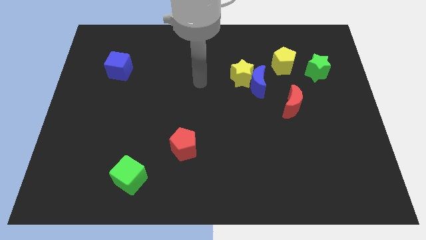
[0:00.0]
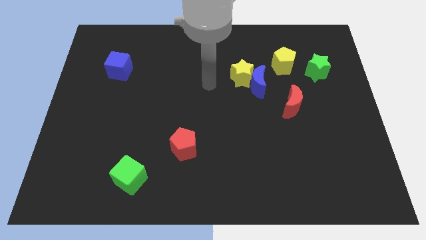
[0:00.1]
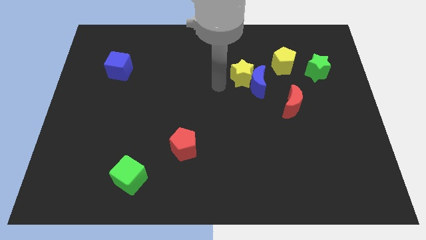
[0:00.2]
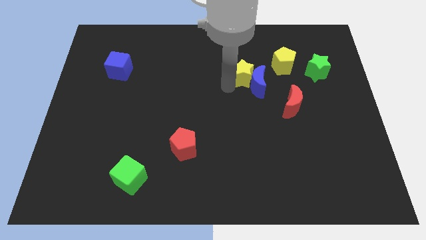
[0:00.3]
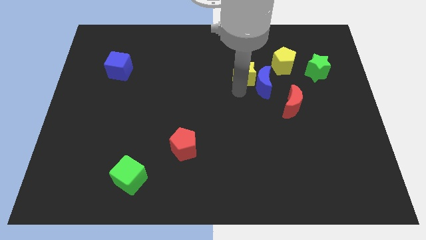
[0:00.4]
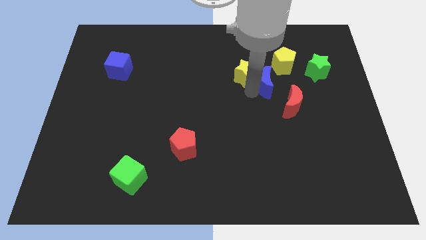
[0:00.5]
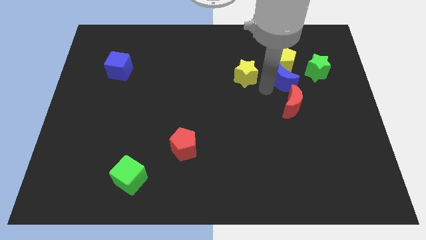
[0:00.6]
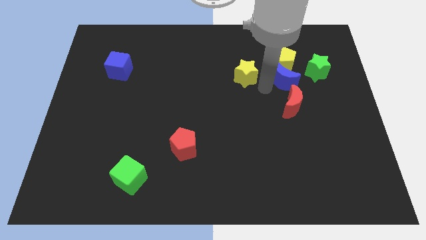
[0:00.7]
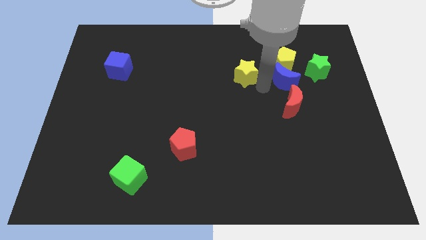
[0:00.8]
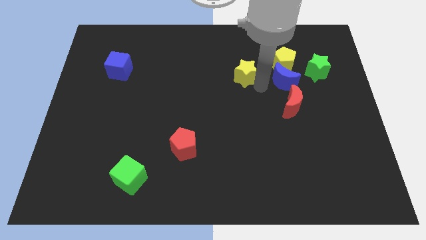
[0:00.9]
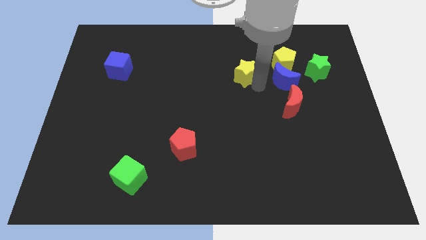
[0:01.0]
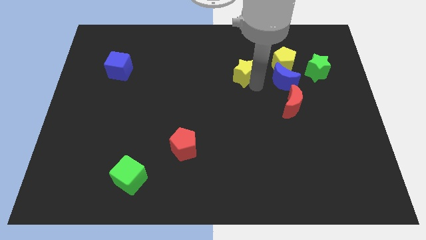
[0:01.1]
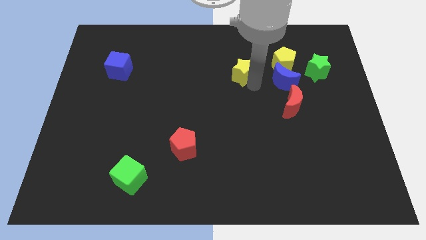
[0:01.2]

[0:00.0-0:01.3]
separate the yellow star from the blue moon

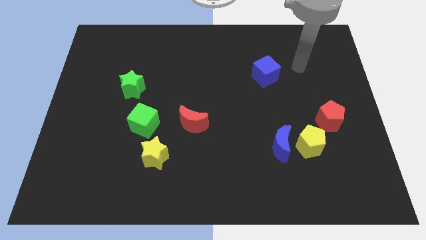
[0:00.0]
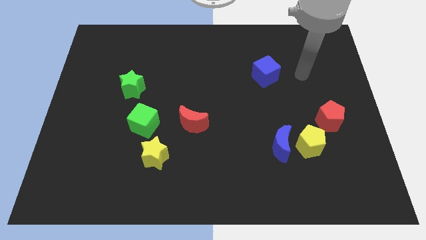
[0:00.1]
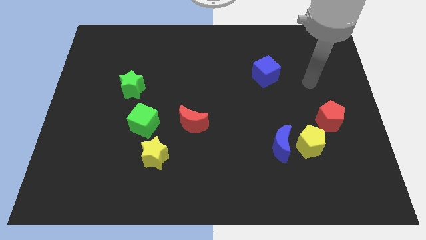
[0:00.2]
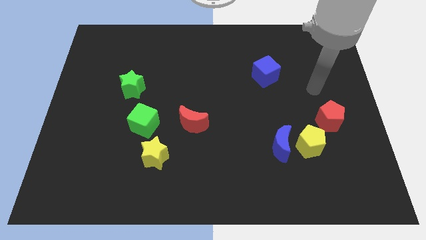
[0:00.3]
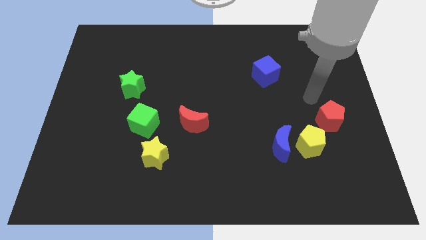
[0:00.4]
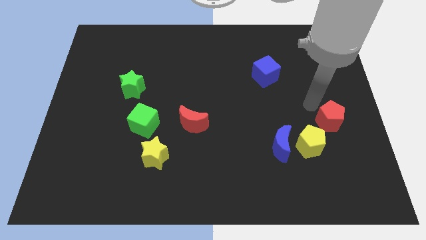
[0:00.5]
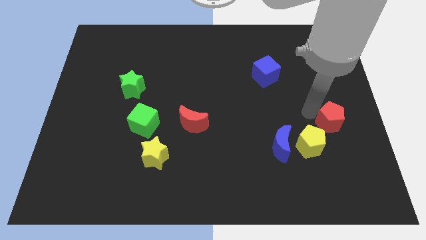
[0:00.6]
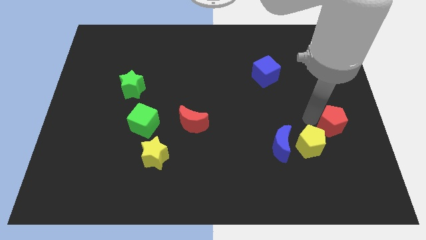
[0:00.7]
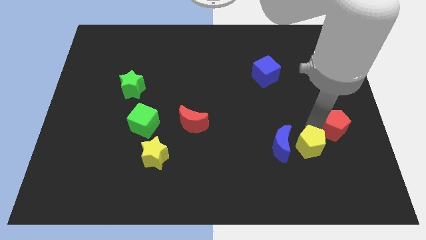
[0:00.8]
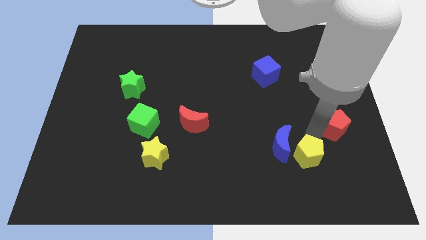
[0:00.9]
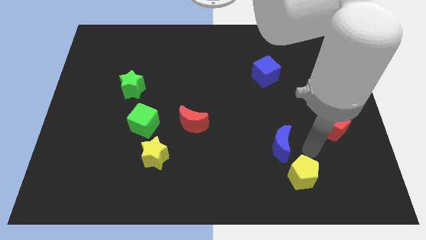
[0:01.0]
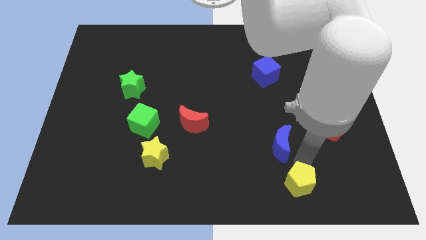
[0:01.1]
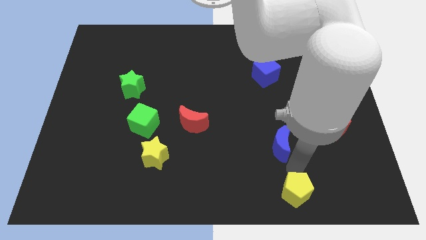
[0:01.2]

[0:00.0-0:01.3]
separate the blue moon from the yellow pentagon

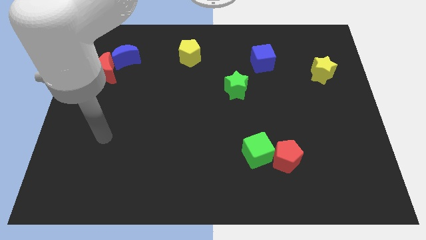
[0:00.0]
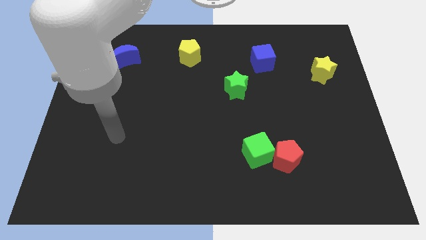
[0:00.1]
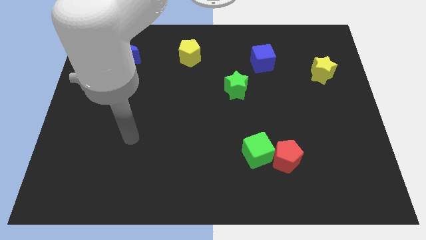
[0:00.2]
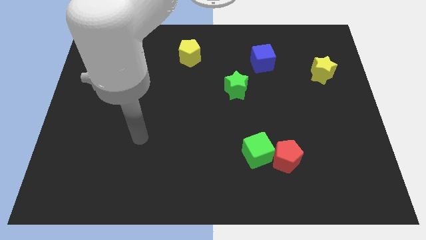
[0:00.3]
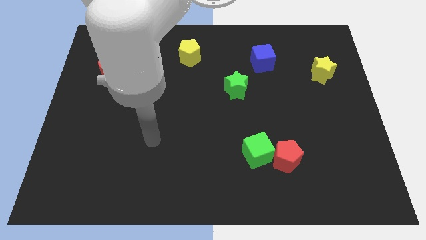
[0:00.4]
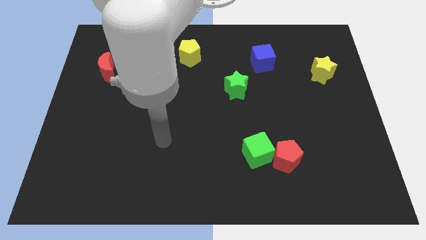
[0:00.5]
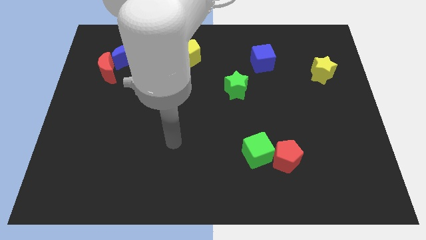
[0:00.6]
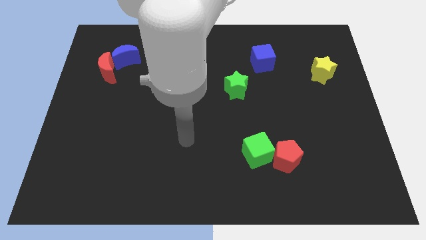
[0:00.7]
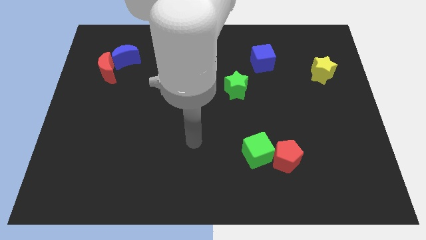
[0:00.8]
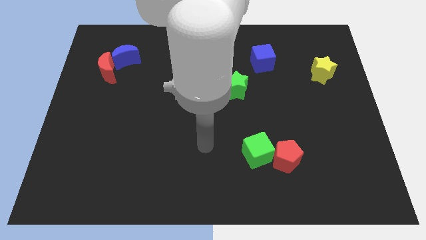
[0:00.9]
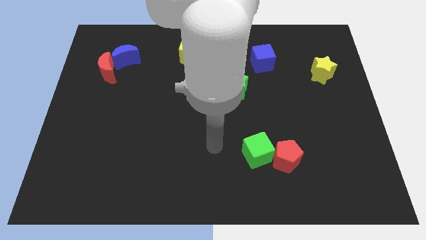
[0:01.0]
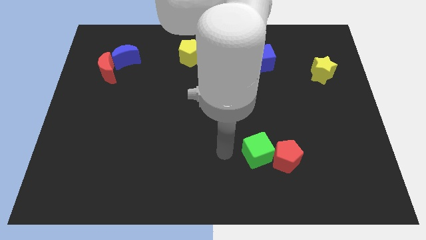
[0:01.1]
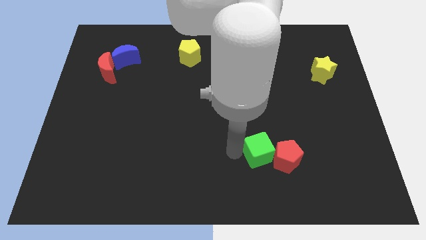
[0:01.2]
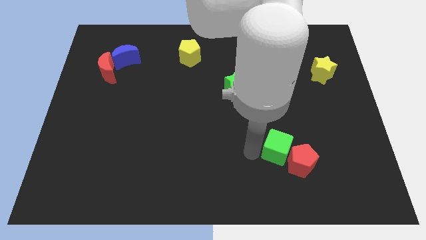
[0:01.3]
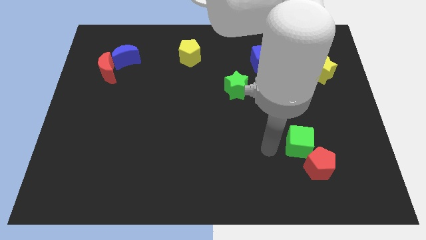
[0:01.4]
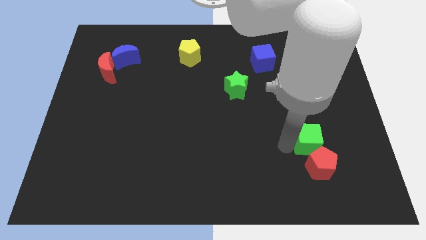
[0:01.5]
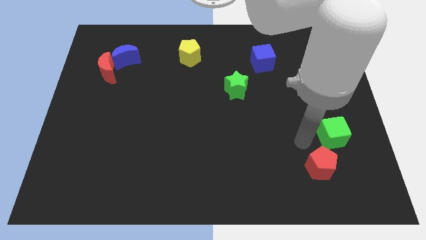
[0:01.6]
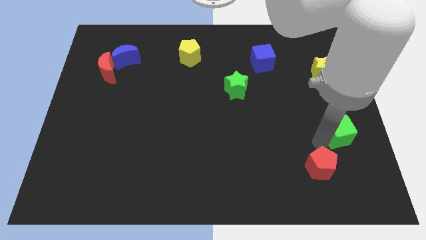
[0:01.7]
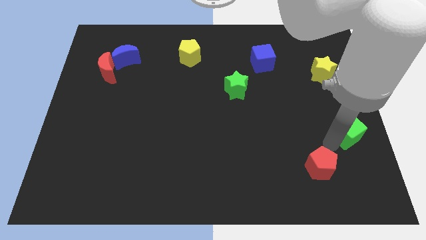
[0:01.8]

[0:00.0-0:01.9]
separate the red pentagon from the green cube

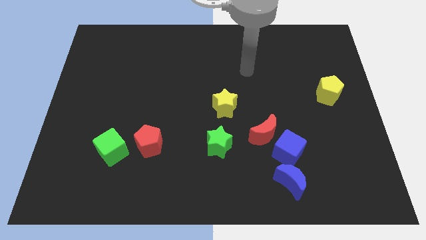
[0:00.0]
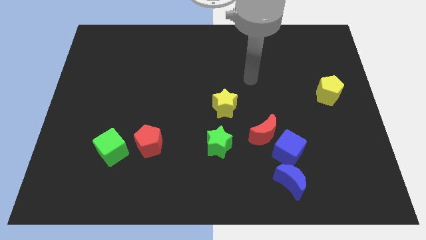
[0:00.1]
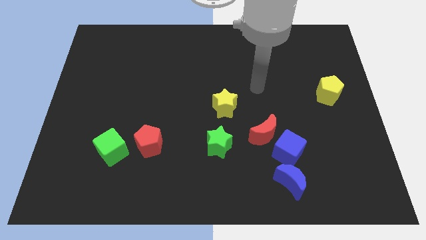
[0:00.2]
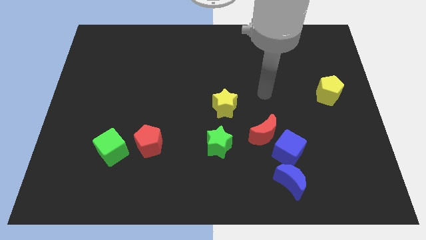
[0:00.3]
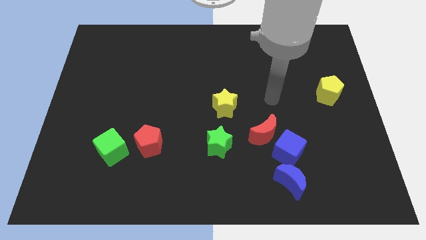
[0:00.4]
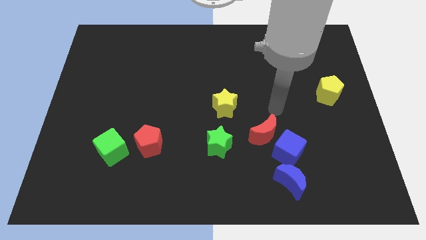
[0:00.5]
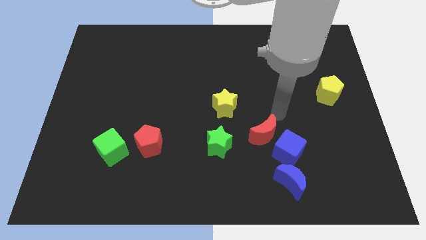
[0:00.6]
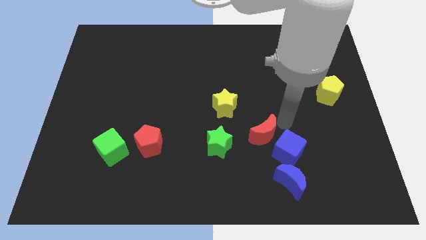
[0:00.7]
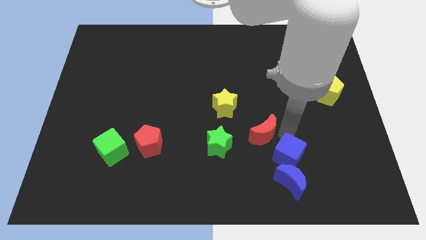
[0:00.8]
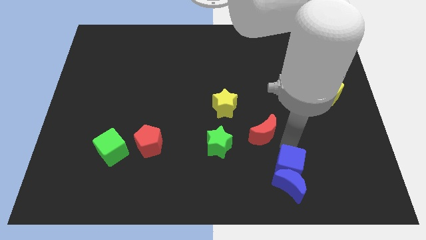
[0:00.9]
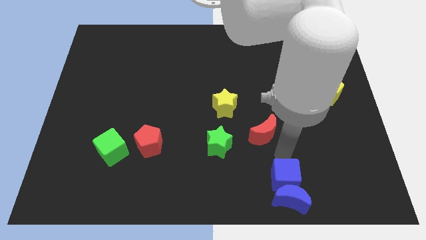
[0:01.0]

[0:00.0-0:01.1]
pull the red moon apart from the blue cube

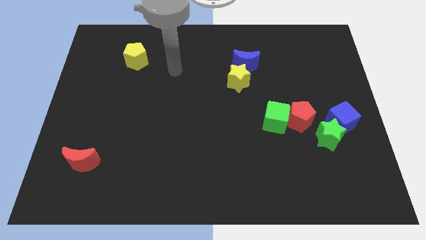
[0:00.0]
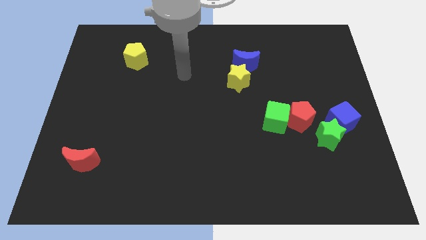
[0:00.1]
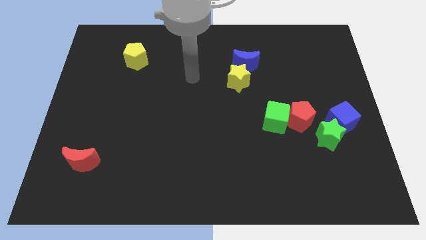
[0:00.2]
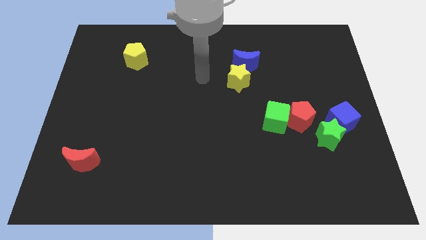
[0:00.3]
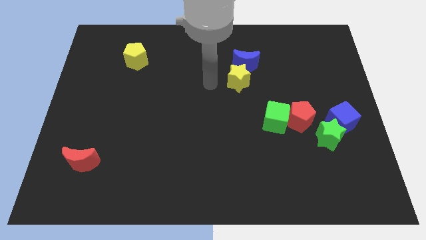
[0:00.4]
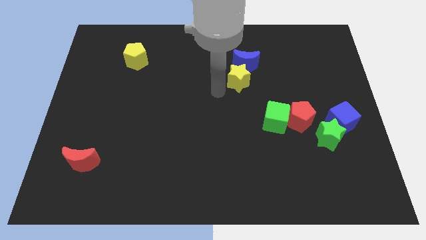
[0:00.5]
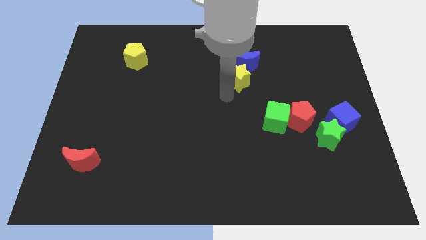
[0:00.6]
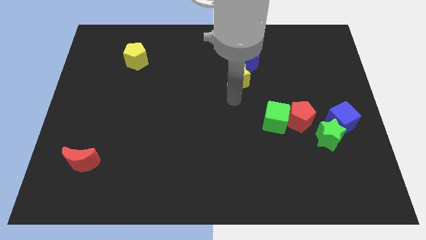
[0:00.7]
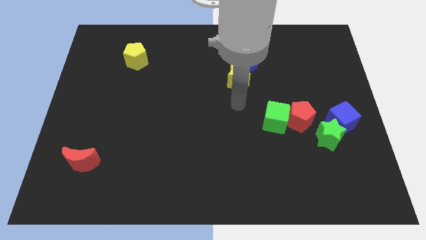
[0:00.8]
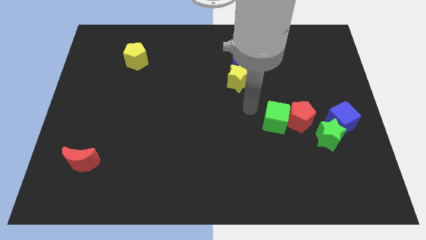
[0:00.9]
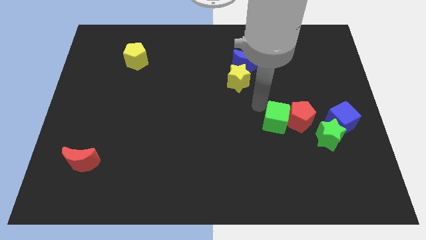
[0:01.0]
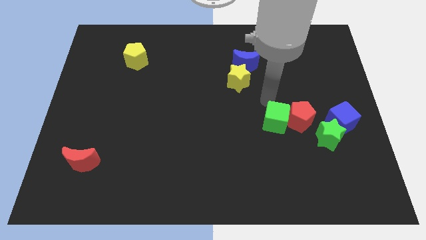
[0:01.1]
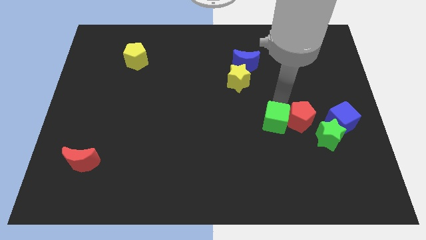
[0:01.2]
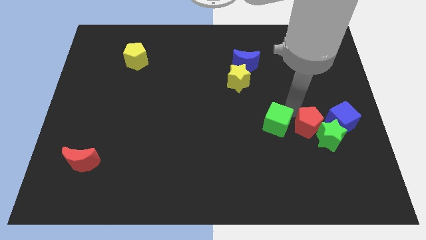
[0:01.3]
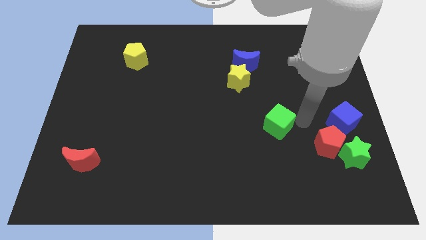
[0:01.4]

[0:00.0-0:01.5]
separate the green cube from the red pentagon

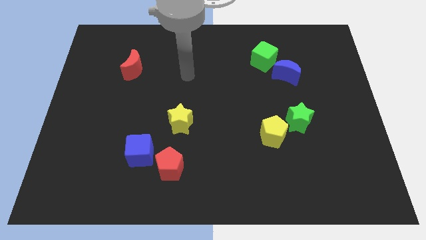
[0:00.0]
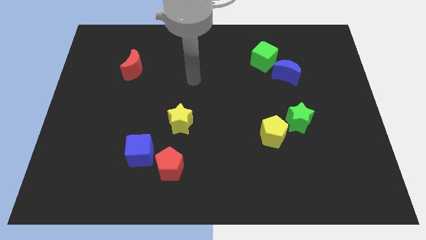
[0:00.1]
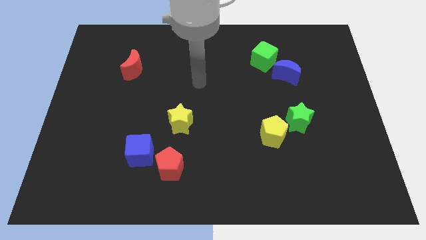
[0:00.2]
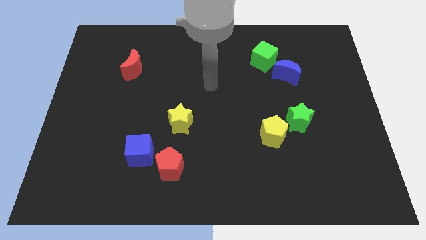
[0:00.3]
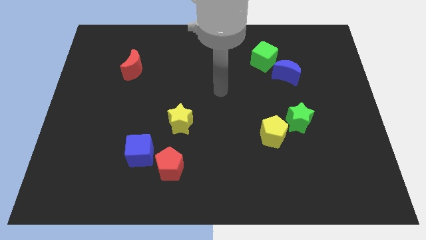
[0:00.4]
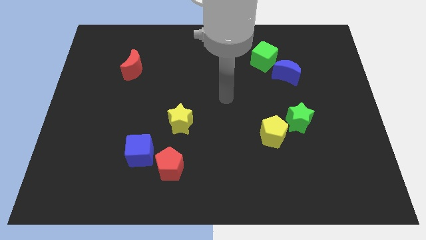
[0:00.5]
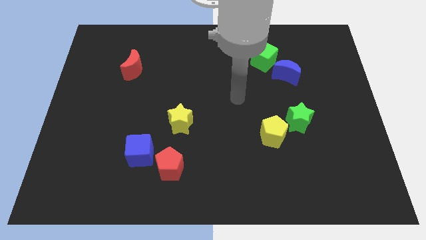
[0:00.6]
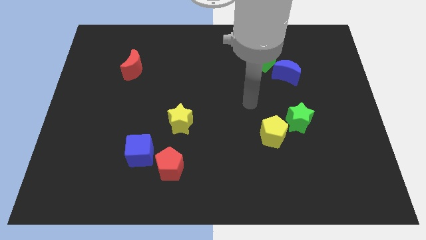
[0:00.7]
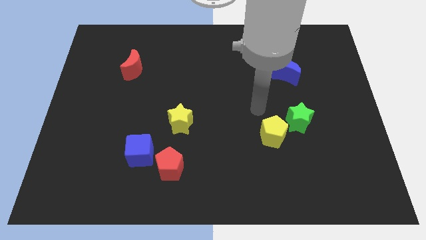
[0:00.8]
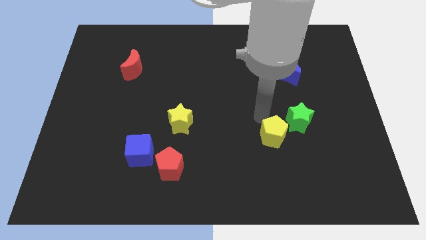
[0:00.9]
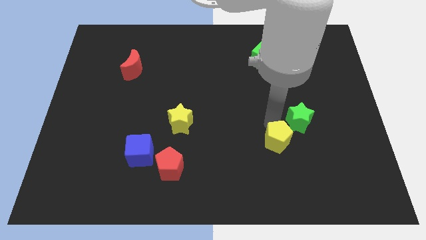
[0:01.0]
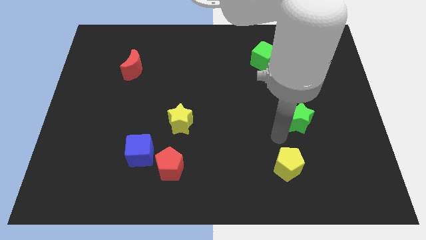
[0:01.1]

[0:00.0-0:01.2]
pull the green star apart from the yellow pentagon

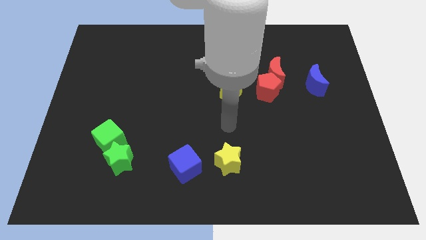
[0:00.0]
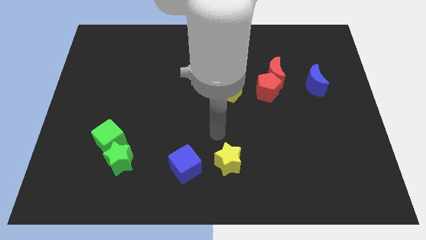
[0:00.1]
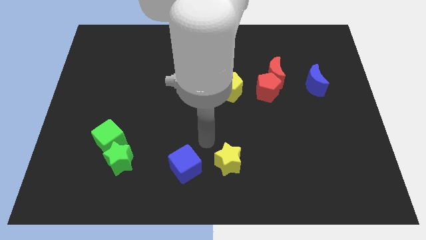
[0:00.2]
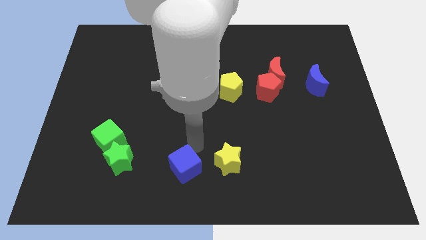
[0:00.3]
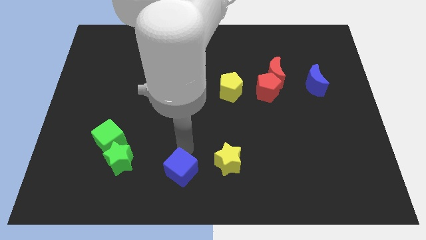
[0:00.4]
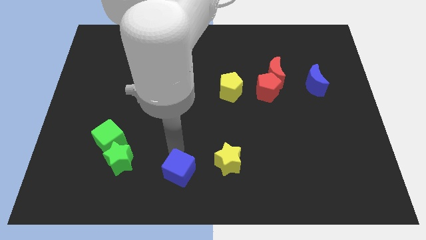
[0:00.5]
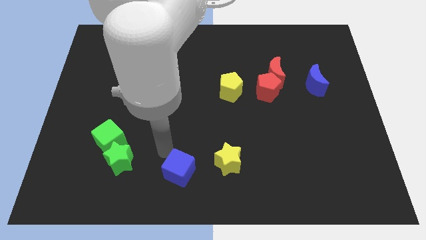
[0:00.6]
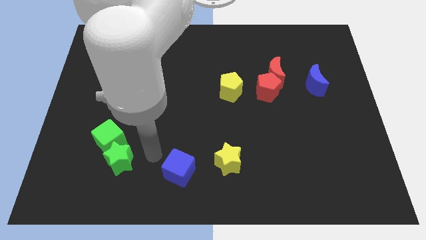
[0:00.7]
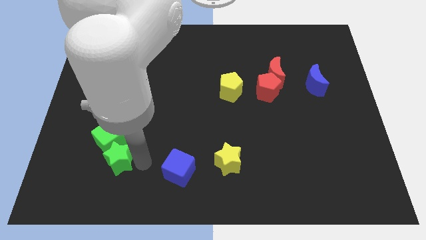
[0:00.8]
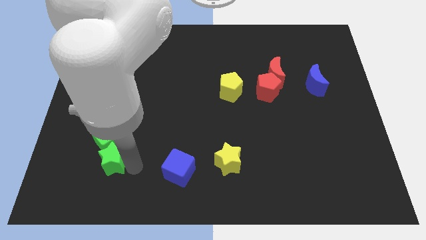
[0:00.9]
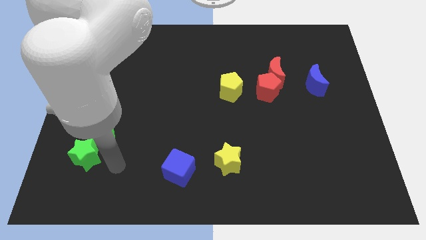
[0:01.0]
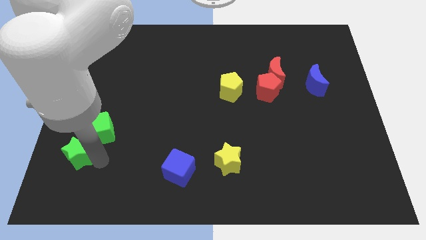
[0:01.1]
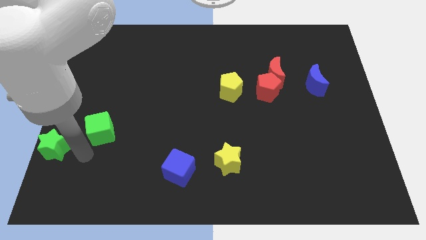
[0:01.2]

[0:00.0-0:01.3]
separate the green cube from the green star
